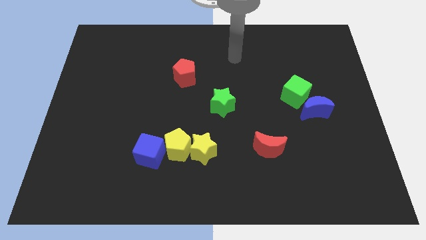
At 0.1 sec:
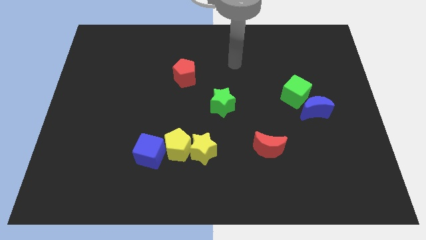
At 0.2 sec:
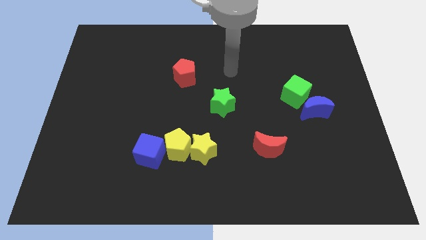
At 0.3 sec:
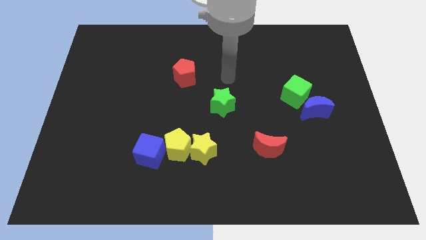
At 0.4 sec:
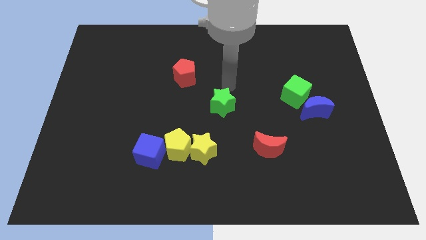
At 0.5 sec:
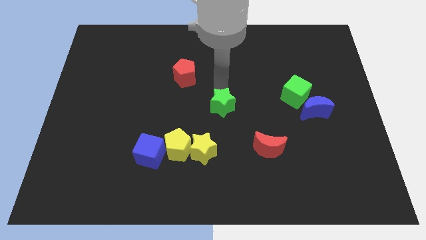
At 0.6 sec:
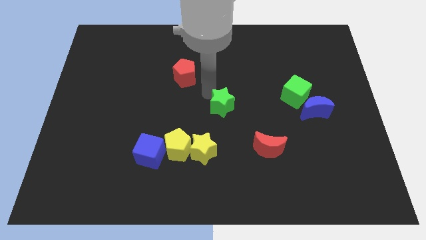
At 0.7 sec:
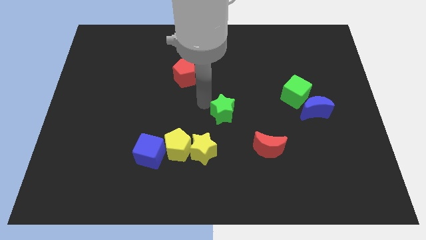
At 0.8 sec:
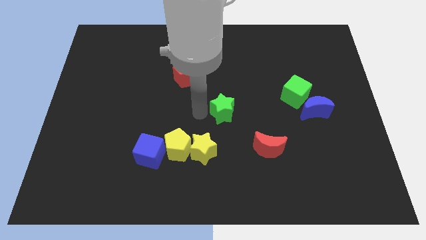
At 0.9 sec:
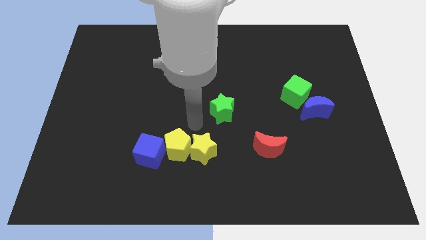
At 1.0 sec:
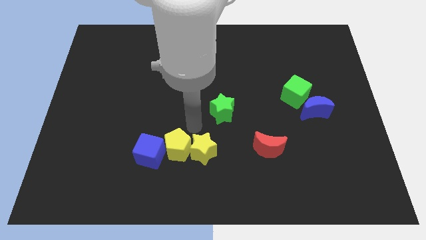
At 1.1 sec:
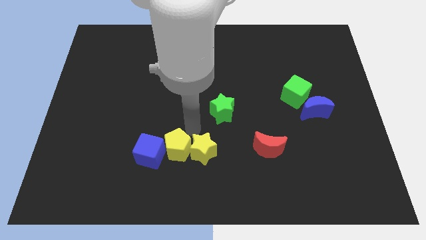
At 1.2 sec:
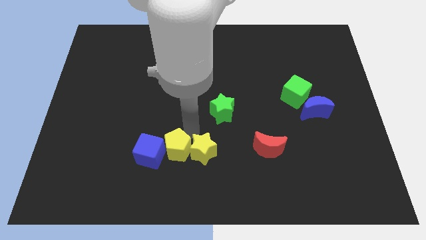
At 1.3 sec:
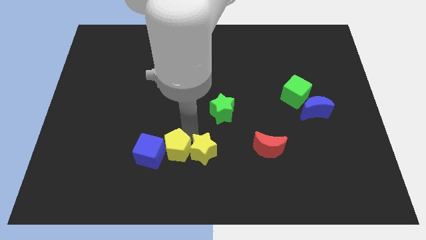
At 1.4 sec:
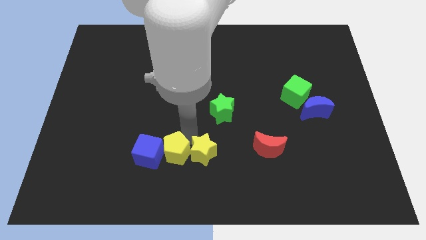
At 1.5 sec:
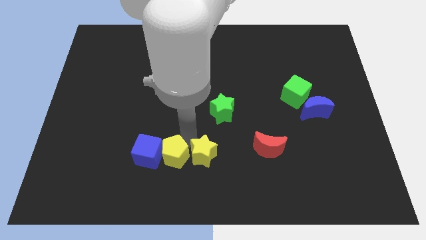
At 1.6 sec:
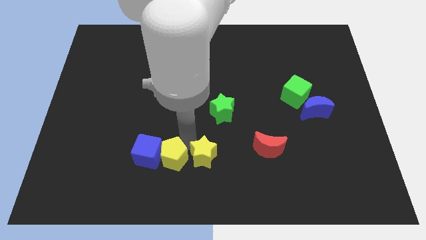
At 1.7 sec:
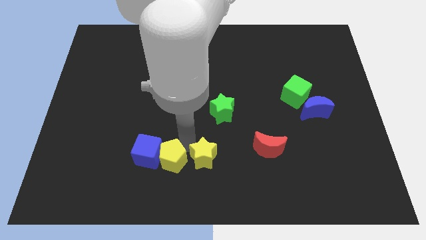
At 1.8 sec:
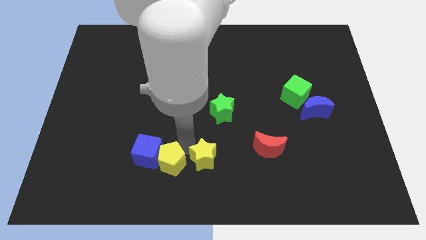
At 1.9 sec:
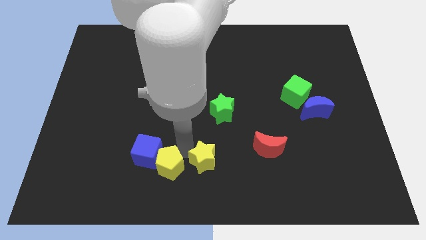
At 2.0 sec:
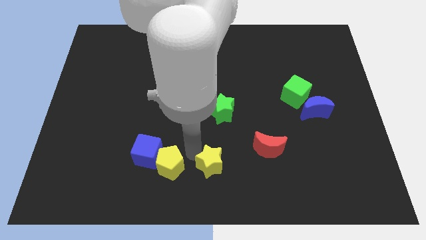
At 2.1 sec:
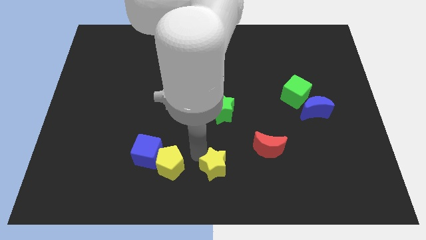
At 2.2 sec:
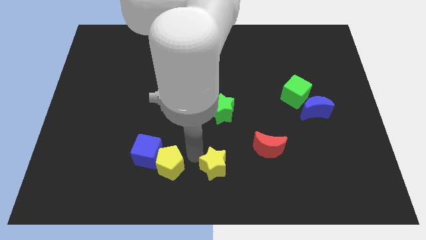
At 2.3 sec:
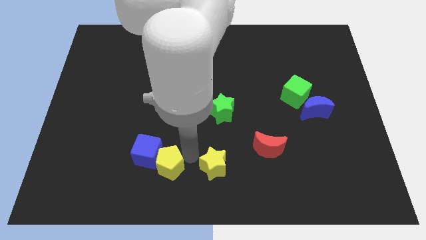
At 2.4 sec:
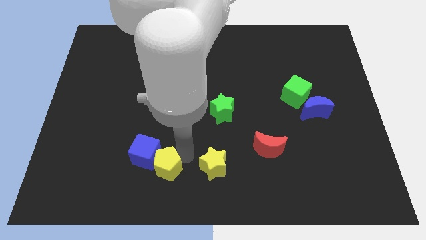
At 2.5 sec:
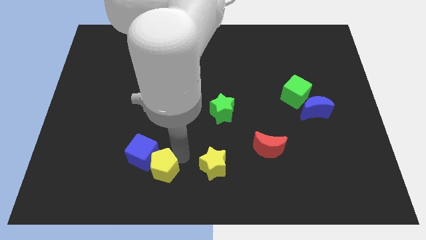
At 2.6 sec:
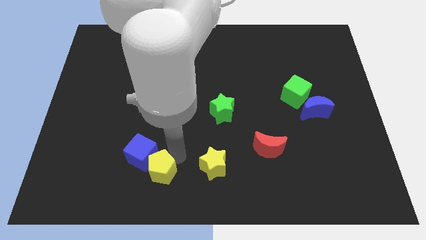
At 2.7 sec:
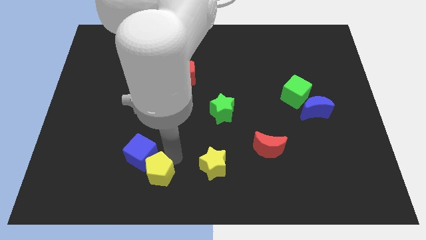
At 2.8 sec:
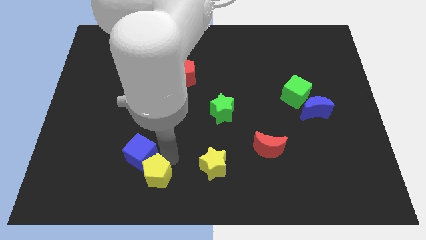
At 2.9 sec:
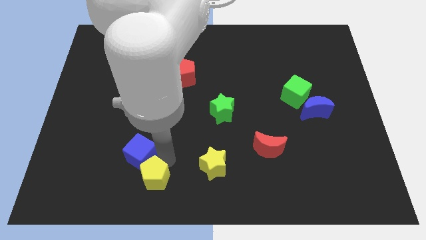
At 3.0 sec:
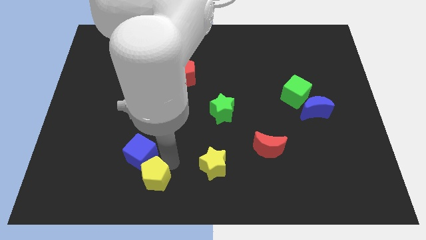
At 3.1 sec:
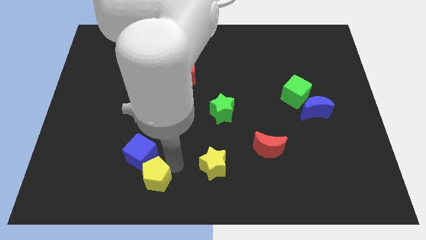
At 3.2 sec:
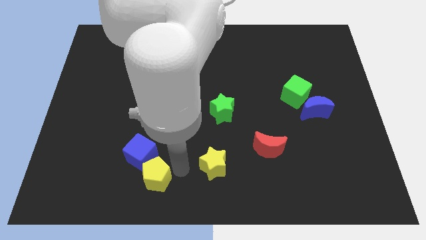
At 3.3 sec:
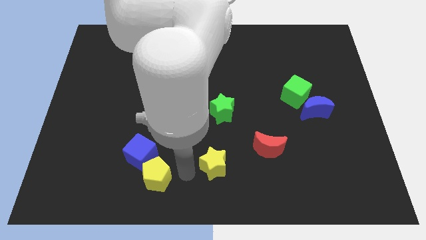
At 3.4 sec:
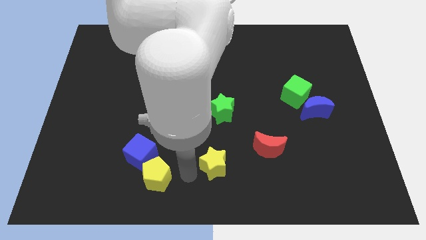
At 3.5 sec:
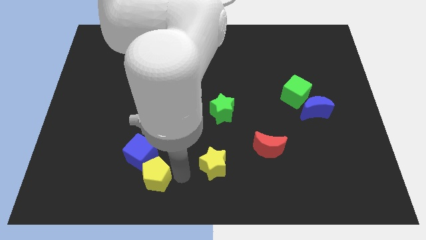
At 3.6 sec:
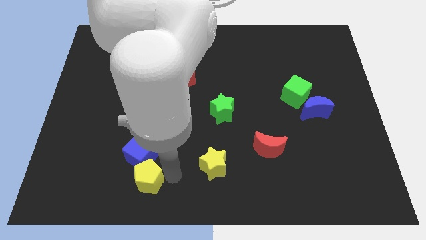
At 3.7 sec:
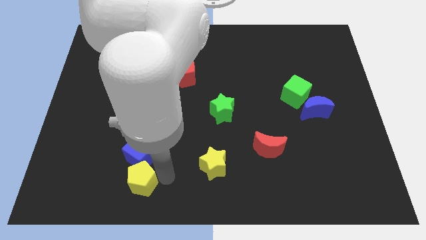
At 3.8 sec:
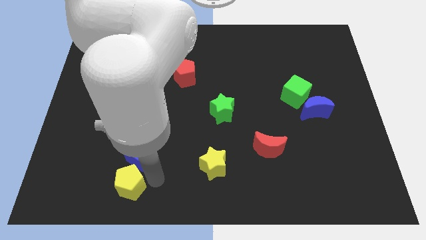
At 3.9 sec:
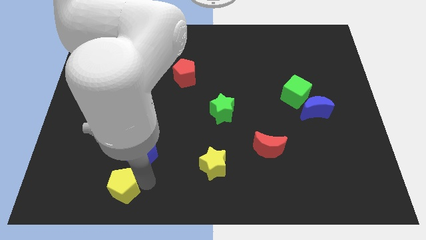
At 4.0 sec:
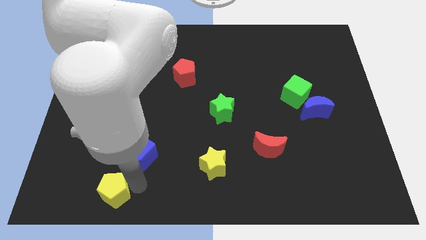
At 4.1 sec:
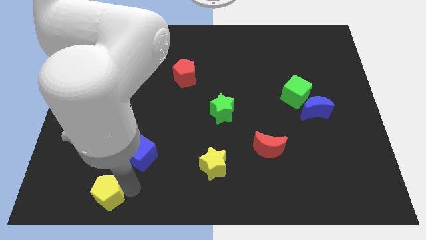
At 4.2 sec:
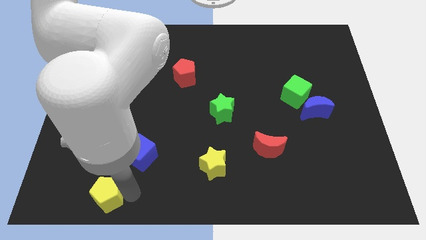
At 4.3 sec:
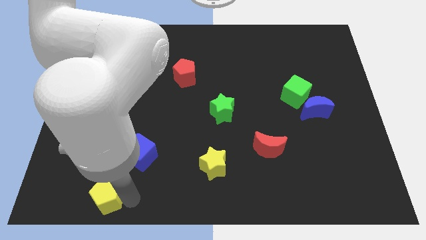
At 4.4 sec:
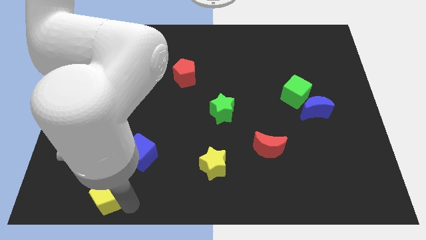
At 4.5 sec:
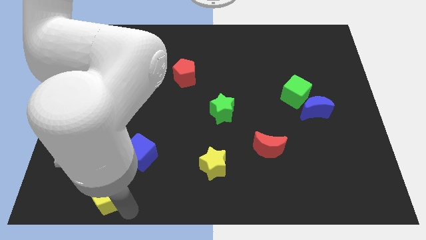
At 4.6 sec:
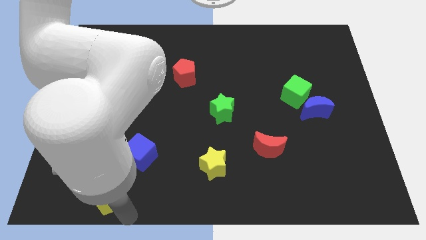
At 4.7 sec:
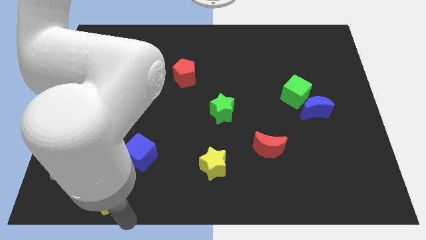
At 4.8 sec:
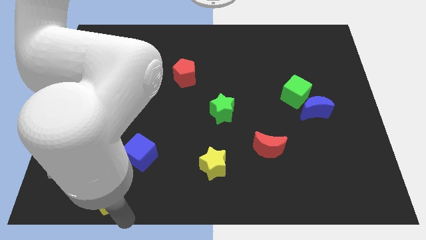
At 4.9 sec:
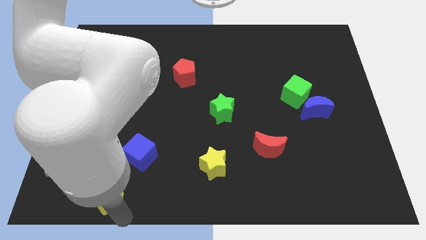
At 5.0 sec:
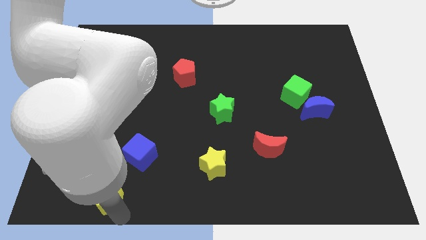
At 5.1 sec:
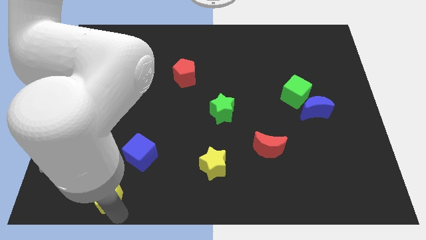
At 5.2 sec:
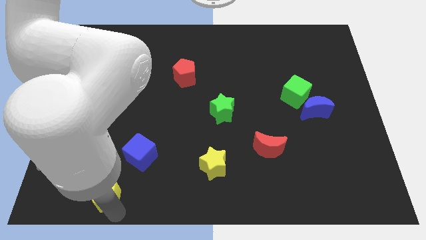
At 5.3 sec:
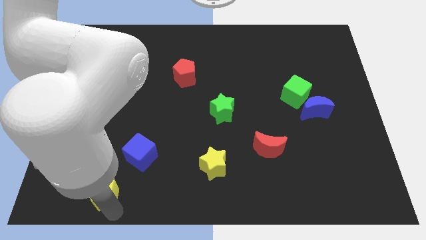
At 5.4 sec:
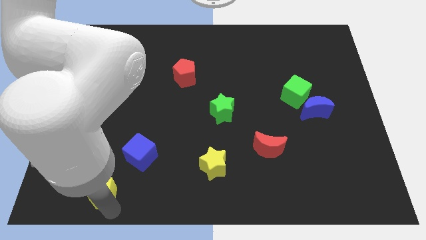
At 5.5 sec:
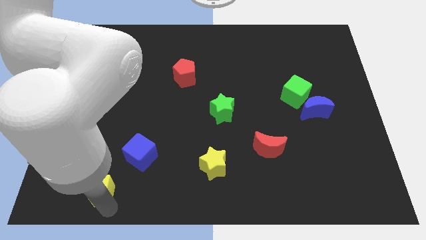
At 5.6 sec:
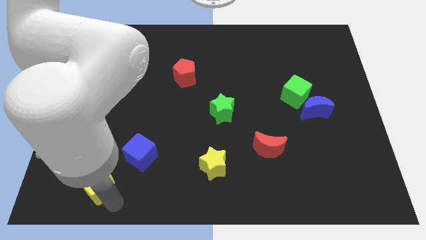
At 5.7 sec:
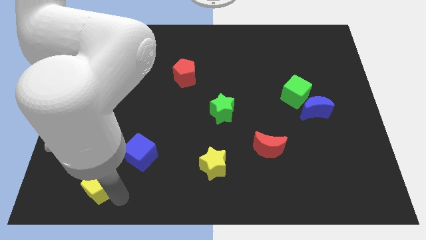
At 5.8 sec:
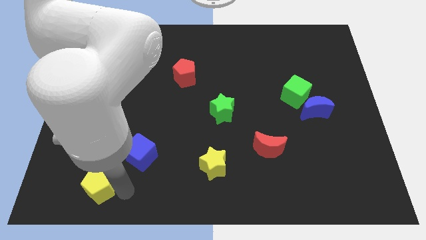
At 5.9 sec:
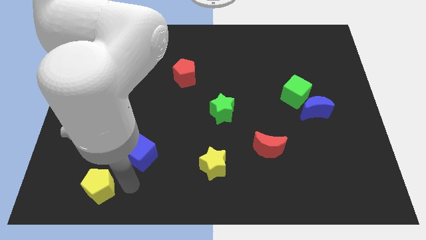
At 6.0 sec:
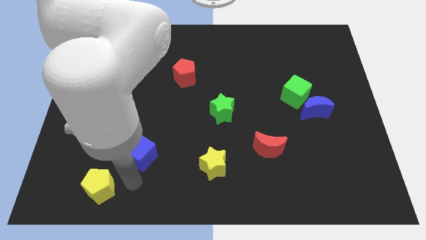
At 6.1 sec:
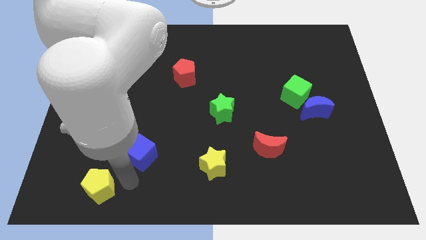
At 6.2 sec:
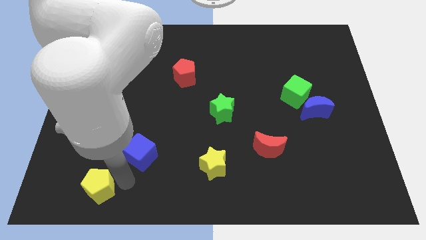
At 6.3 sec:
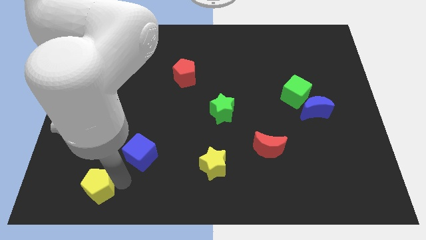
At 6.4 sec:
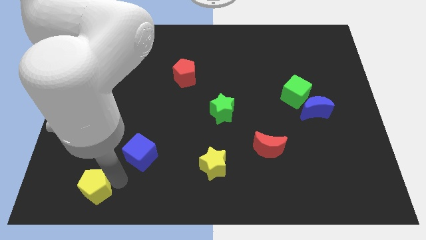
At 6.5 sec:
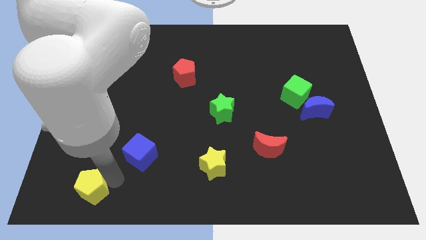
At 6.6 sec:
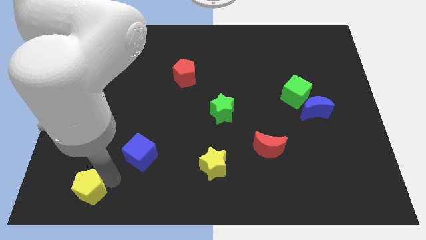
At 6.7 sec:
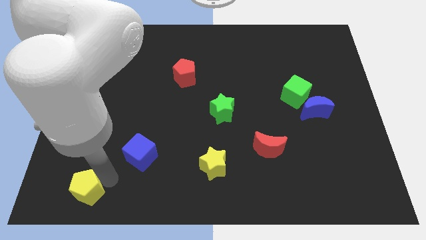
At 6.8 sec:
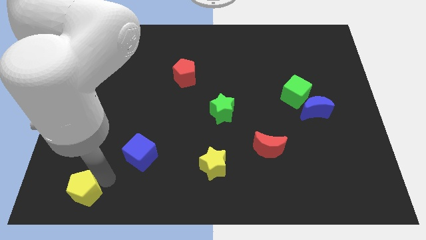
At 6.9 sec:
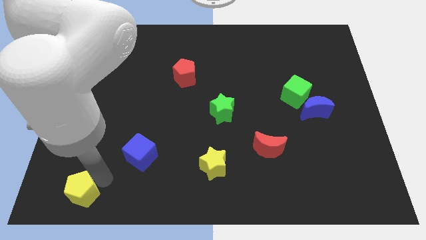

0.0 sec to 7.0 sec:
move the yellow pentagon to the bottom left
